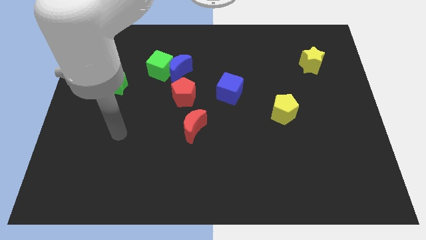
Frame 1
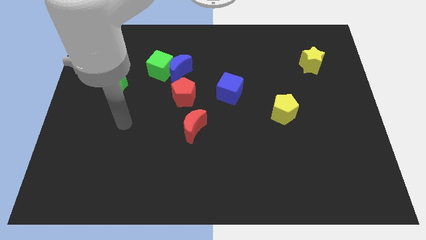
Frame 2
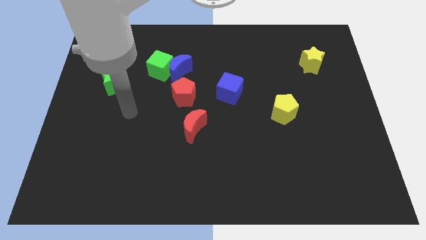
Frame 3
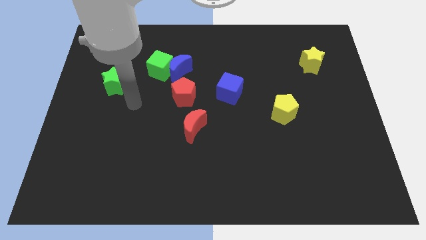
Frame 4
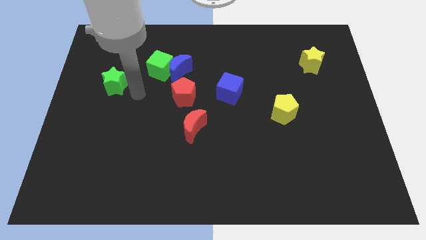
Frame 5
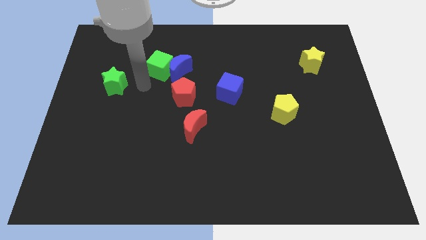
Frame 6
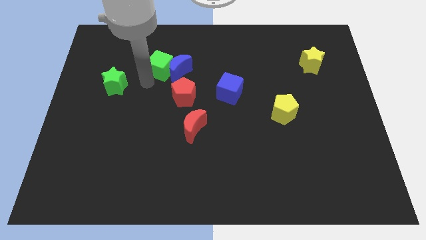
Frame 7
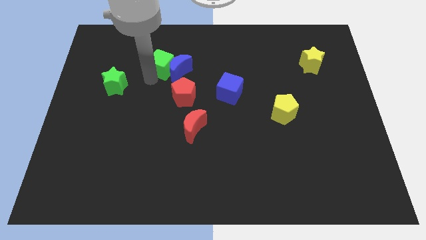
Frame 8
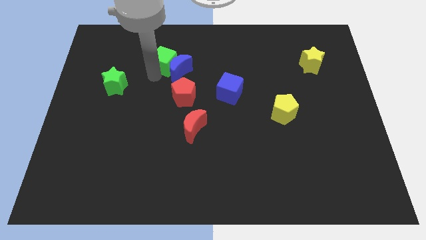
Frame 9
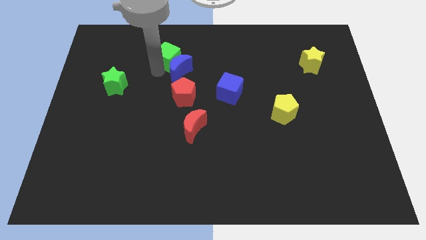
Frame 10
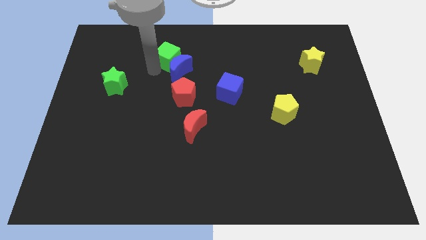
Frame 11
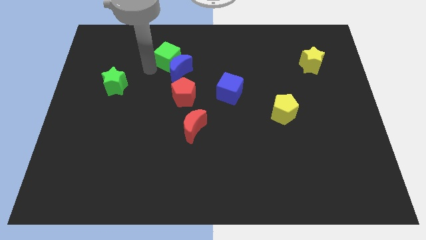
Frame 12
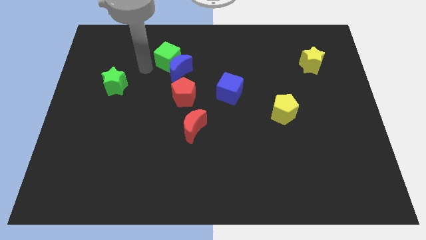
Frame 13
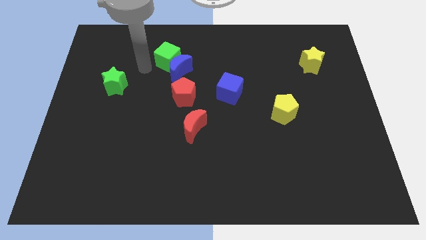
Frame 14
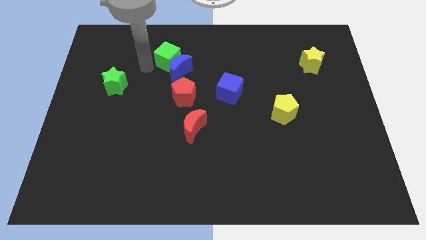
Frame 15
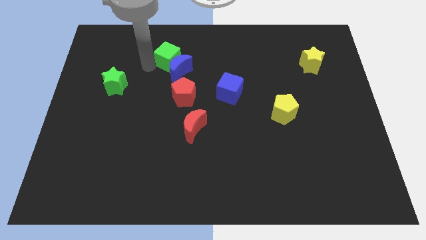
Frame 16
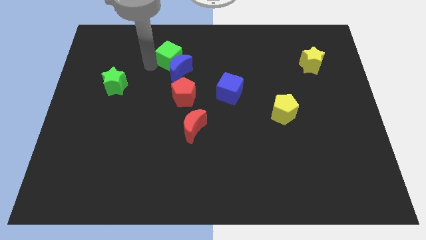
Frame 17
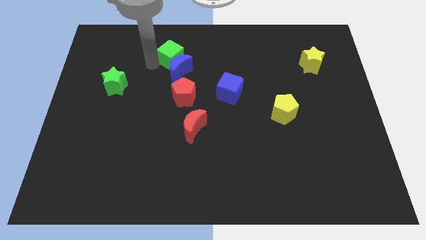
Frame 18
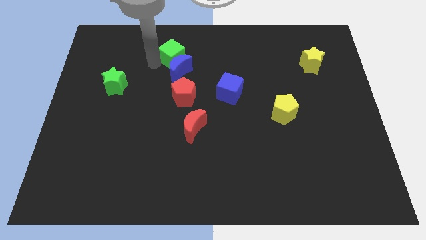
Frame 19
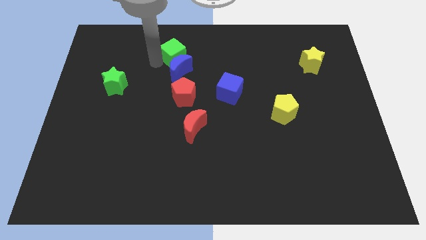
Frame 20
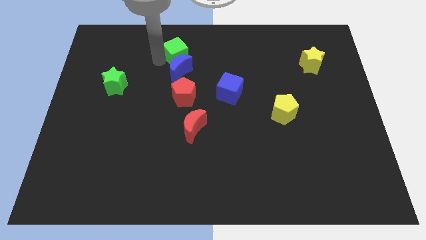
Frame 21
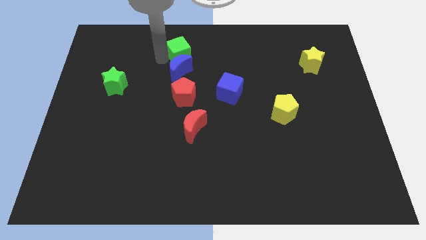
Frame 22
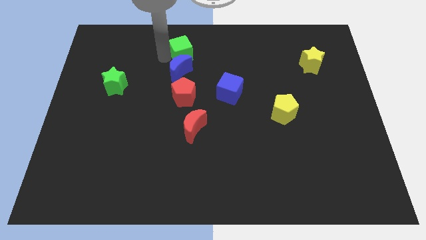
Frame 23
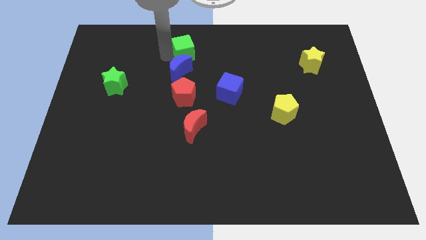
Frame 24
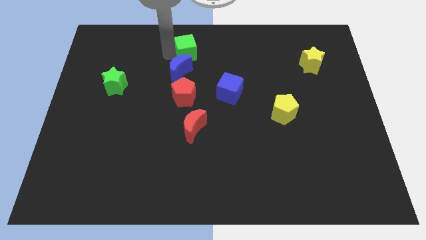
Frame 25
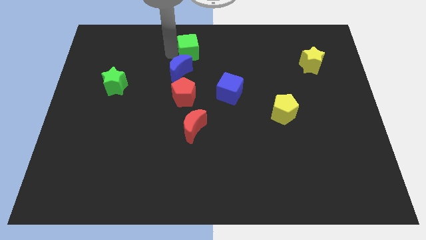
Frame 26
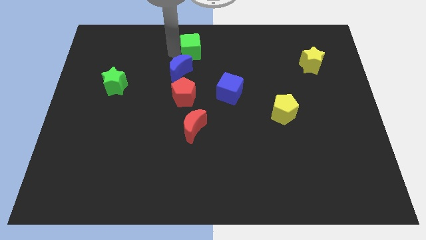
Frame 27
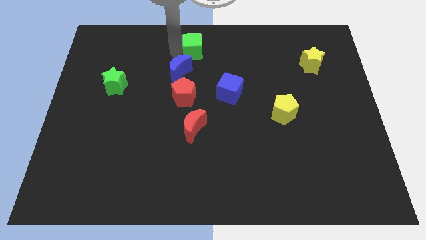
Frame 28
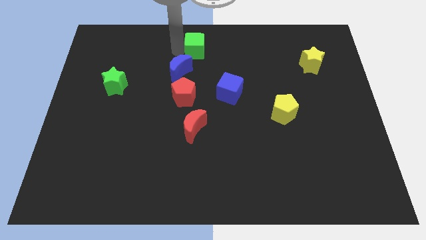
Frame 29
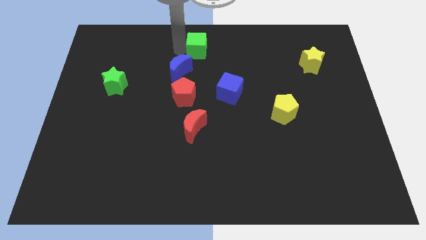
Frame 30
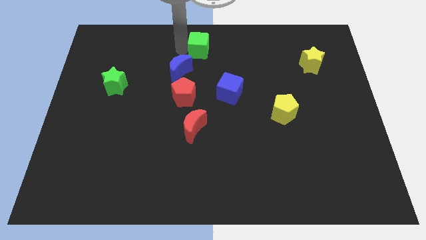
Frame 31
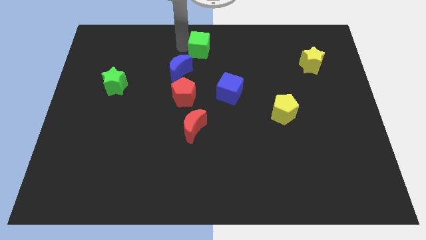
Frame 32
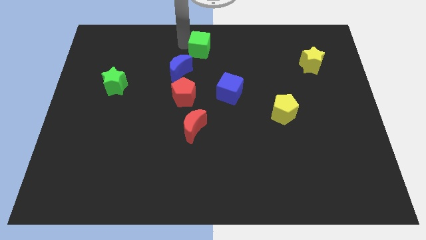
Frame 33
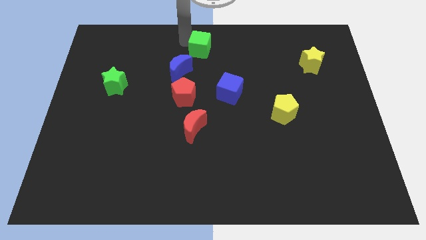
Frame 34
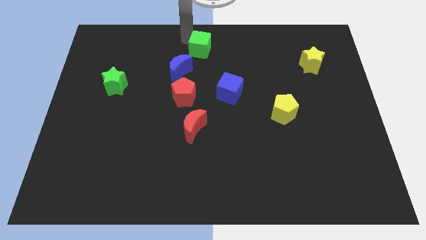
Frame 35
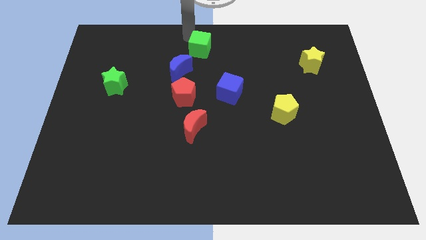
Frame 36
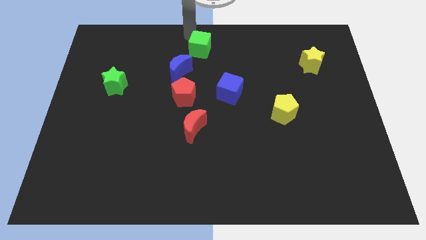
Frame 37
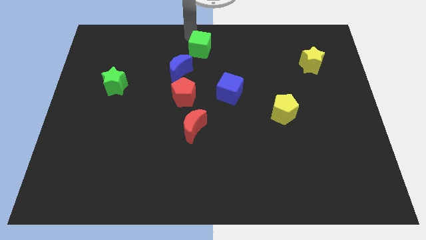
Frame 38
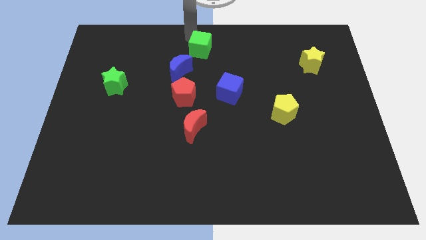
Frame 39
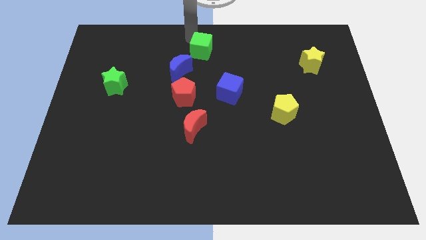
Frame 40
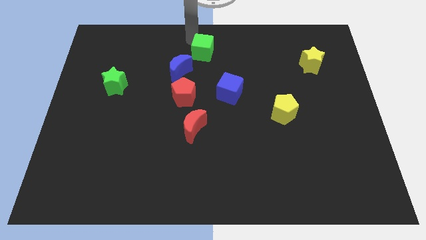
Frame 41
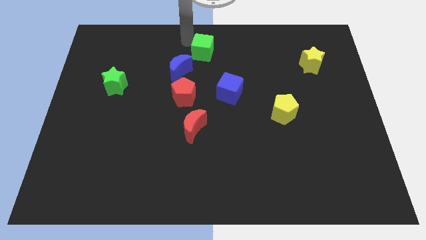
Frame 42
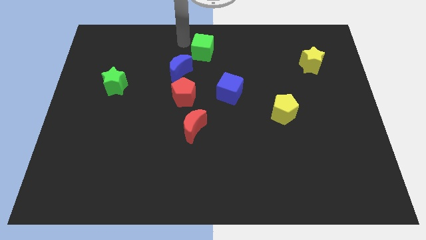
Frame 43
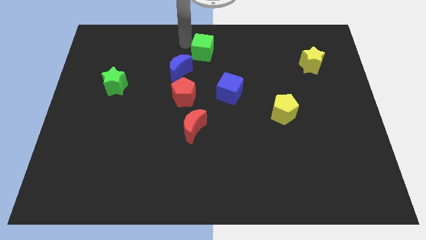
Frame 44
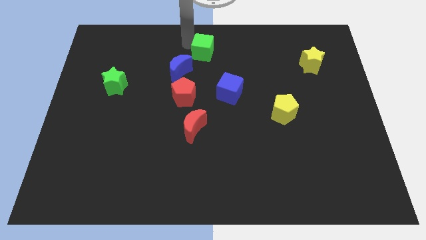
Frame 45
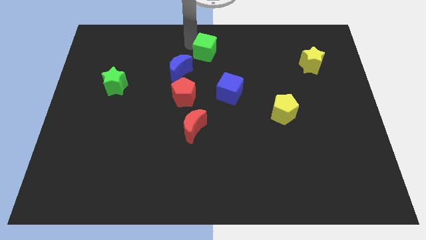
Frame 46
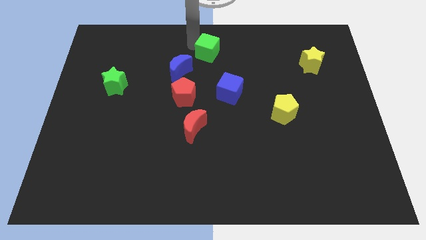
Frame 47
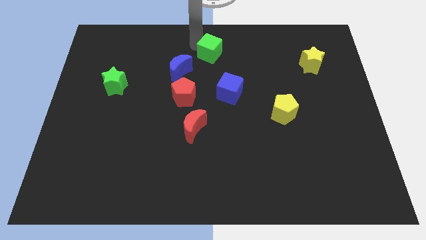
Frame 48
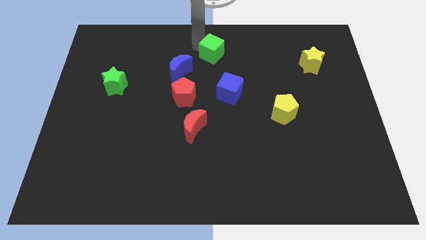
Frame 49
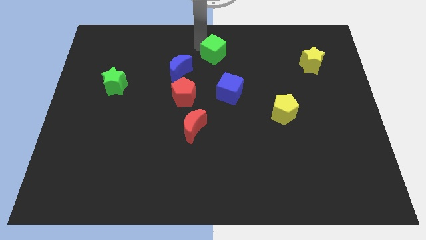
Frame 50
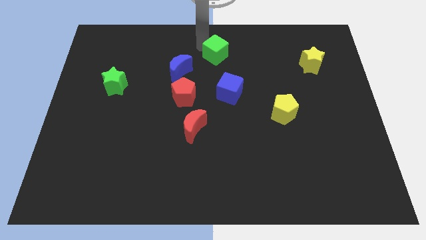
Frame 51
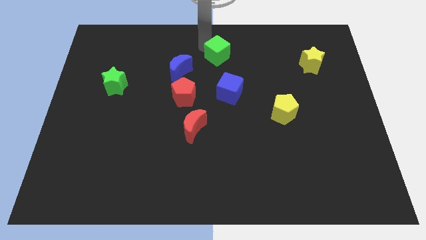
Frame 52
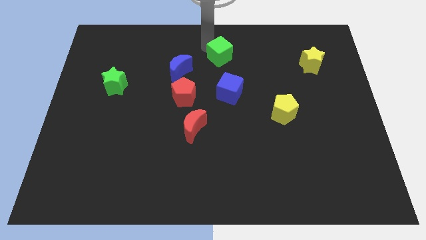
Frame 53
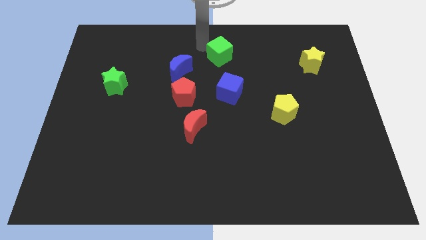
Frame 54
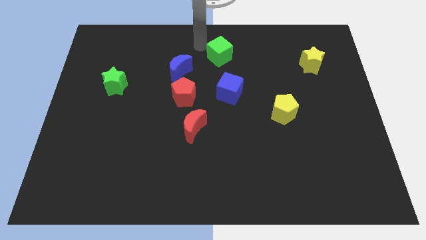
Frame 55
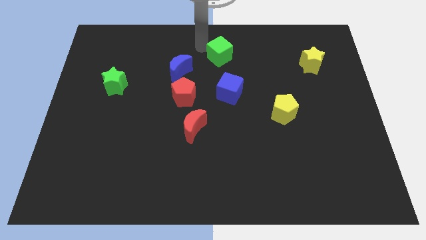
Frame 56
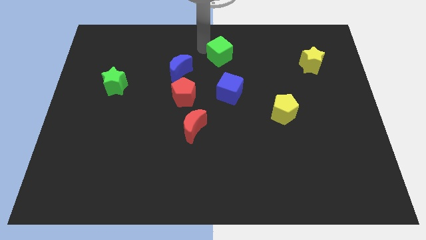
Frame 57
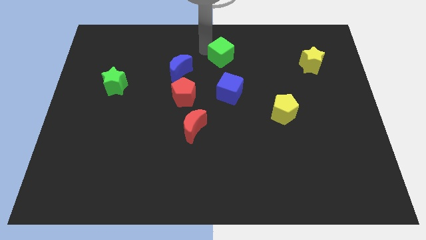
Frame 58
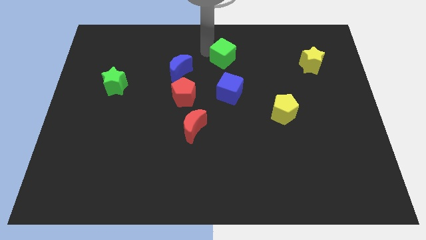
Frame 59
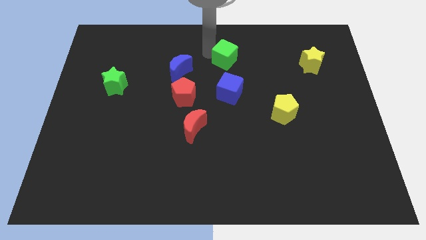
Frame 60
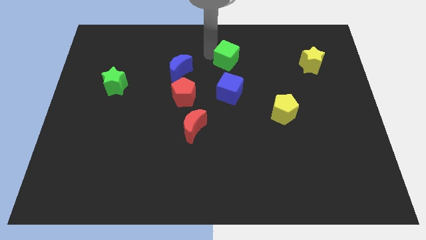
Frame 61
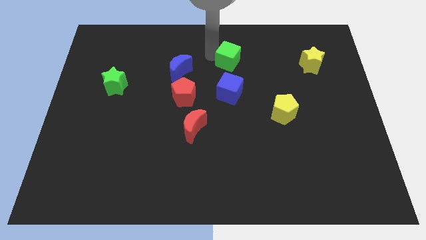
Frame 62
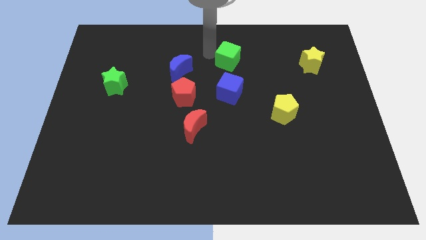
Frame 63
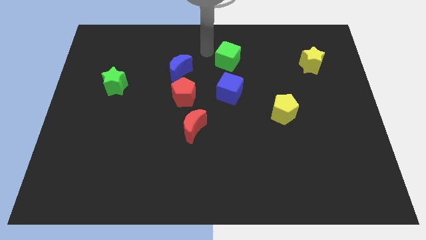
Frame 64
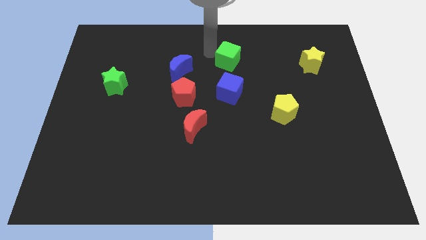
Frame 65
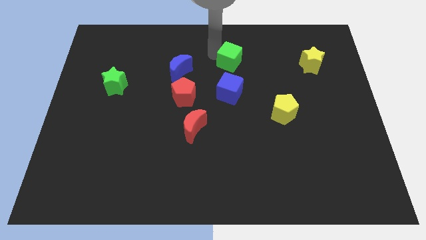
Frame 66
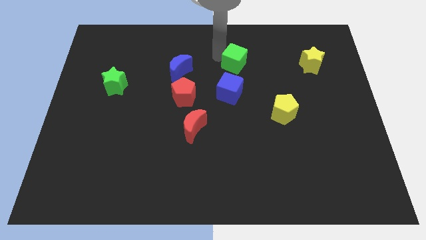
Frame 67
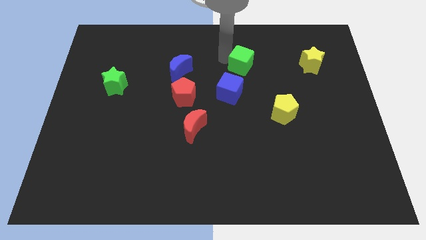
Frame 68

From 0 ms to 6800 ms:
slide the green cube to the right

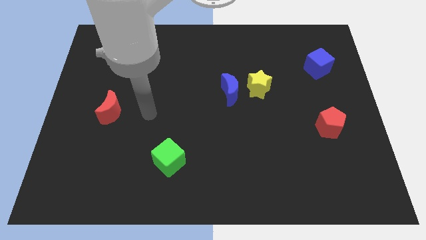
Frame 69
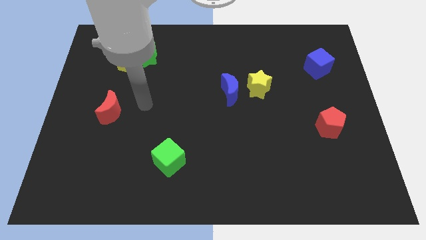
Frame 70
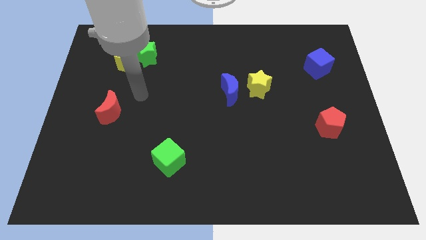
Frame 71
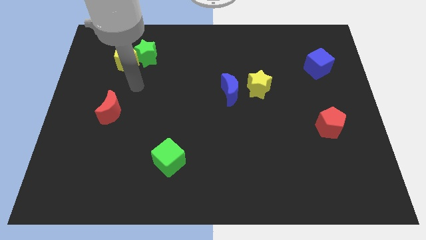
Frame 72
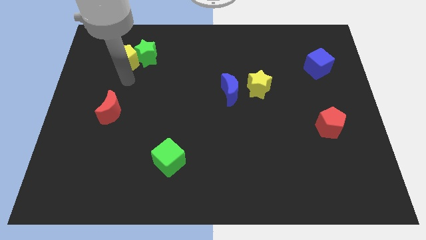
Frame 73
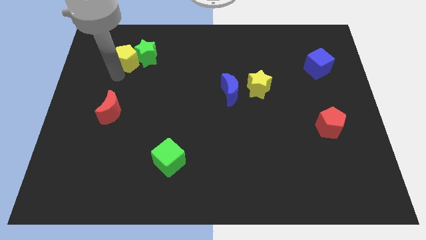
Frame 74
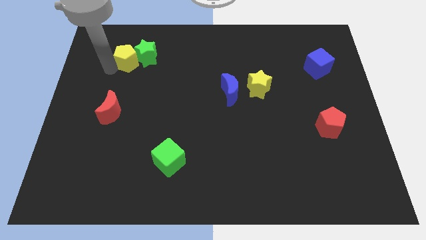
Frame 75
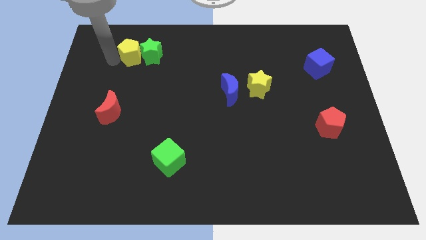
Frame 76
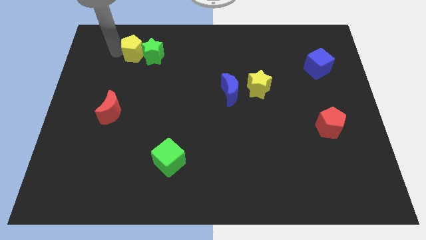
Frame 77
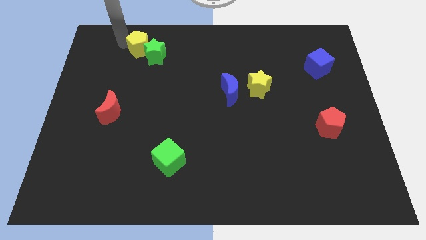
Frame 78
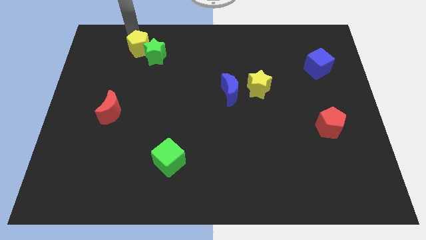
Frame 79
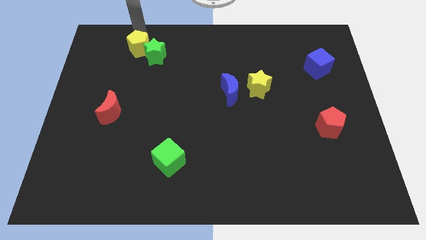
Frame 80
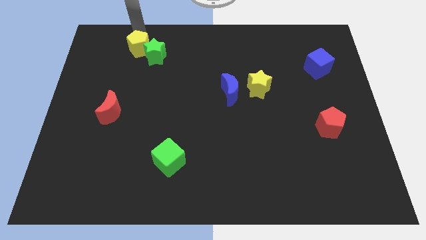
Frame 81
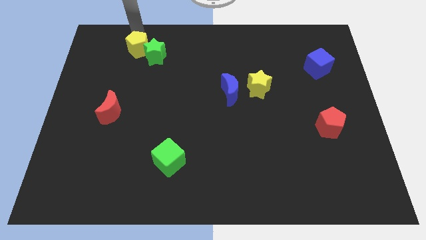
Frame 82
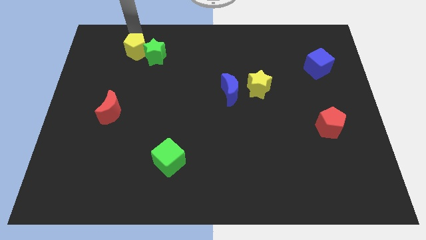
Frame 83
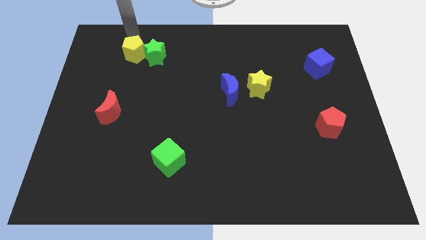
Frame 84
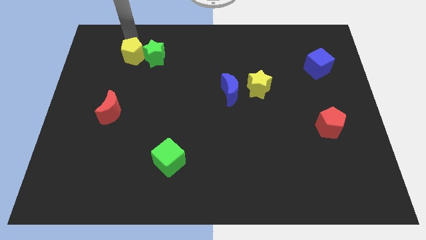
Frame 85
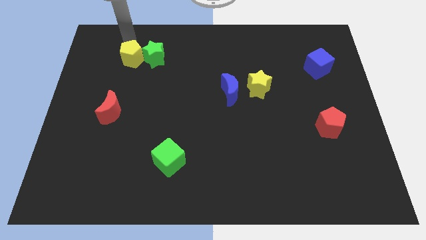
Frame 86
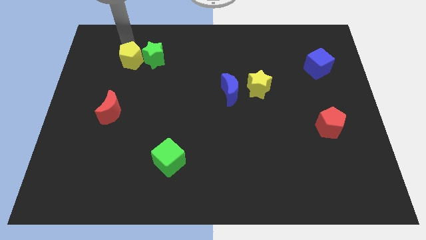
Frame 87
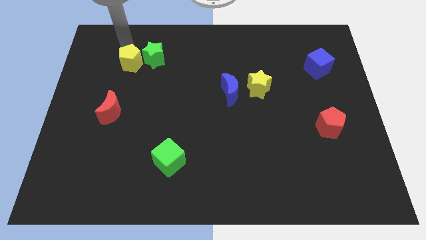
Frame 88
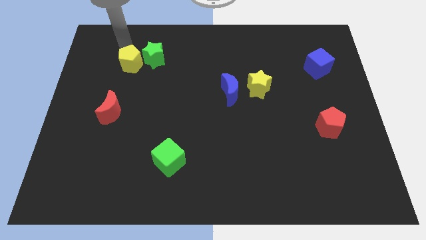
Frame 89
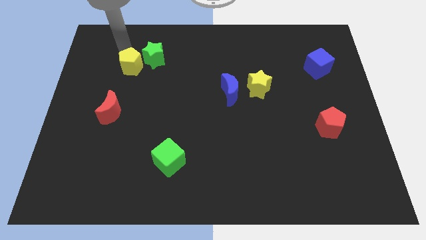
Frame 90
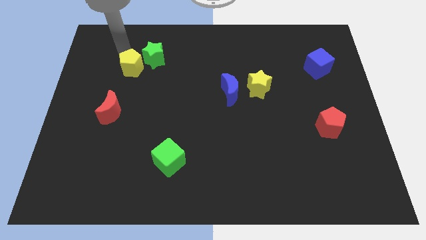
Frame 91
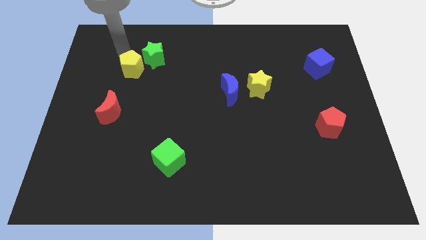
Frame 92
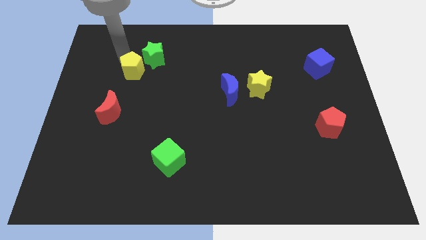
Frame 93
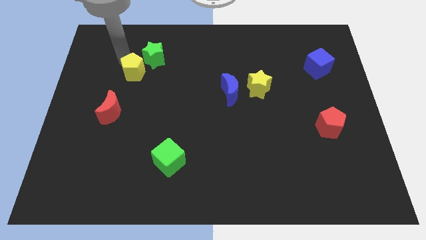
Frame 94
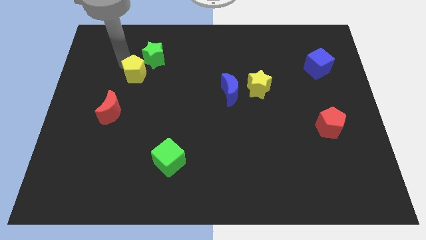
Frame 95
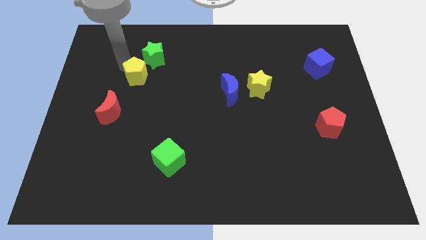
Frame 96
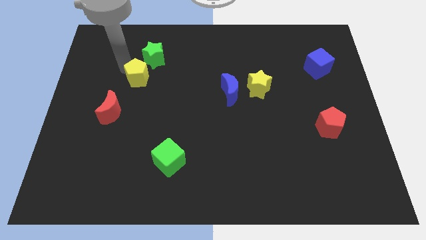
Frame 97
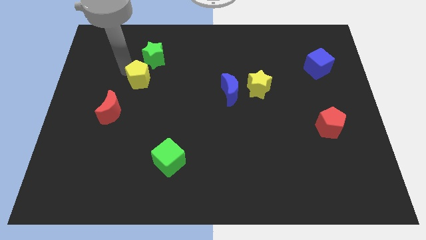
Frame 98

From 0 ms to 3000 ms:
move the yellow pentagon slightly down and right
